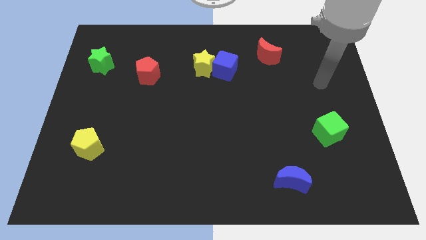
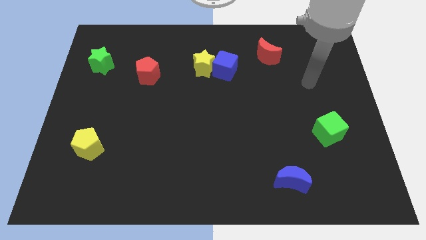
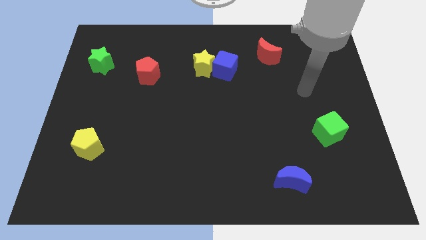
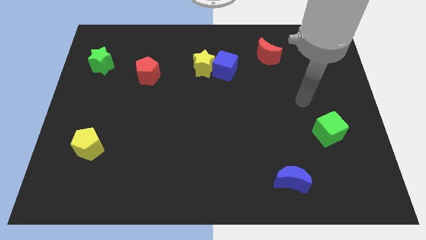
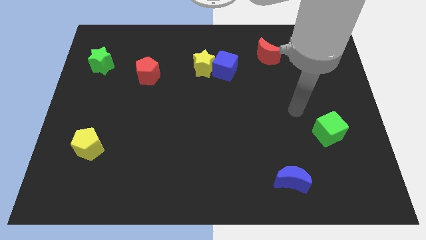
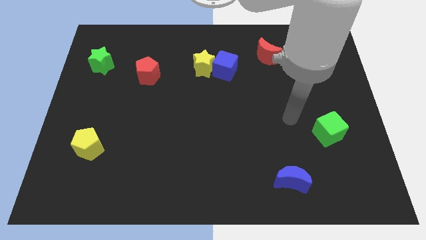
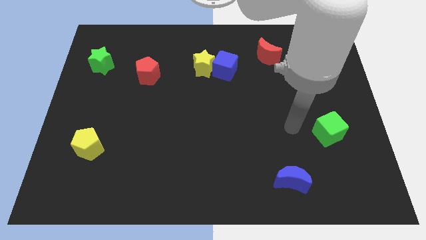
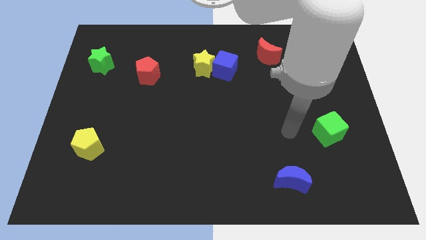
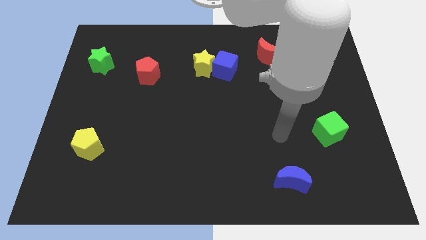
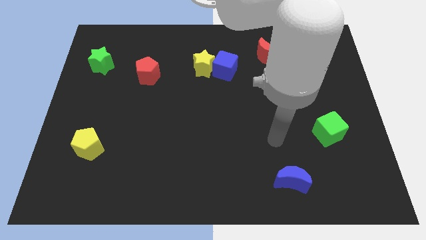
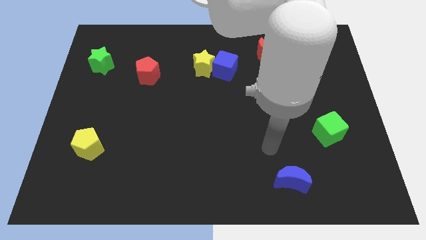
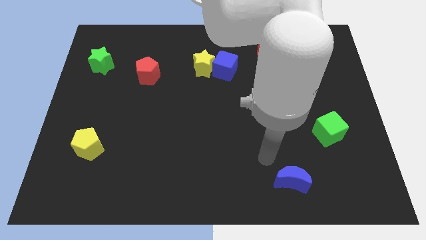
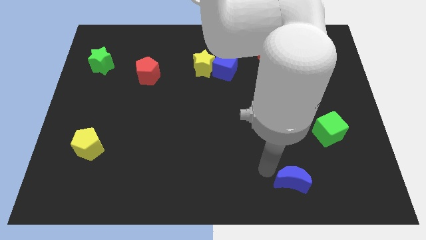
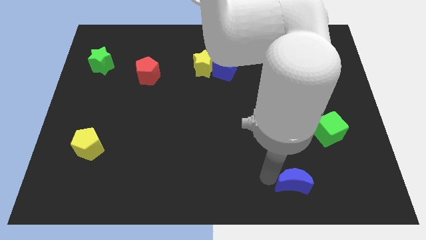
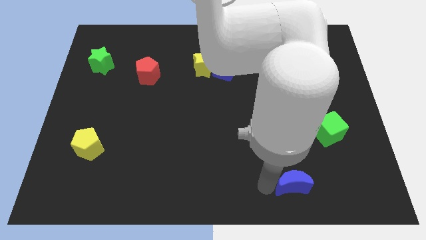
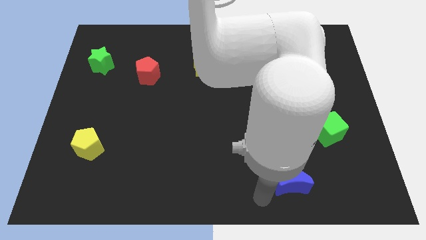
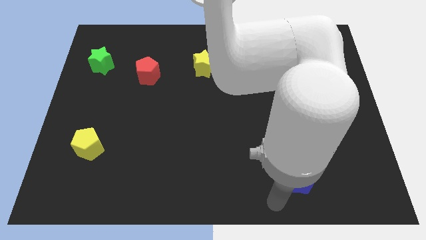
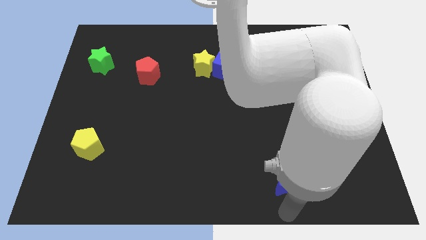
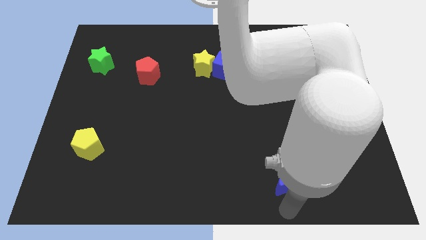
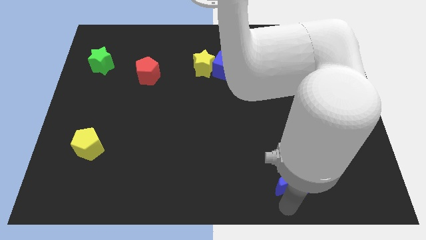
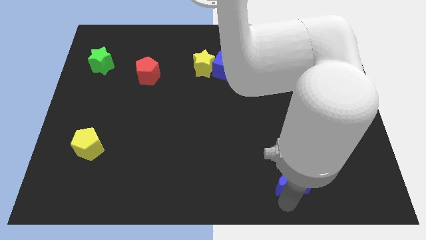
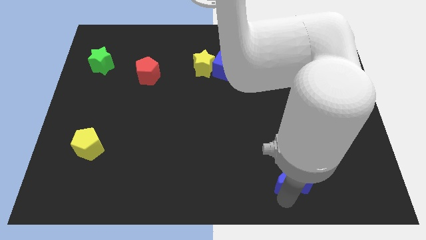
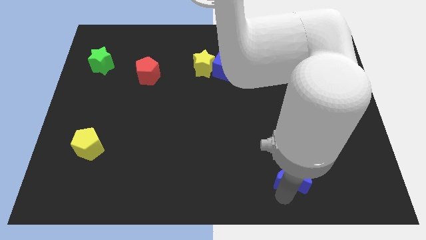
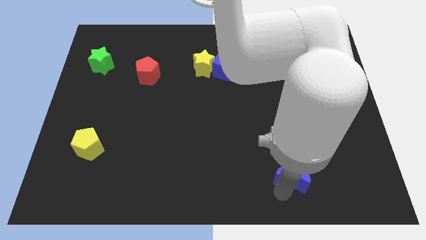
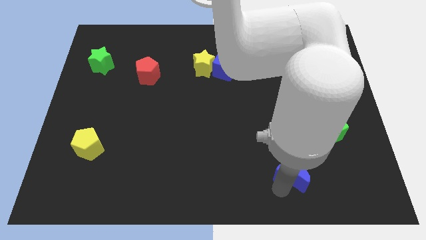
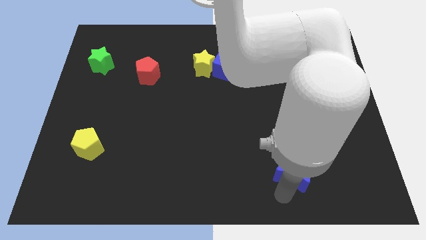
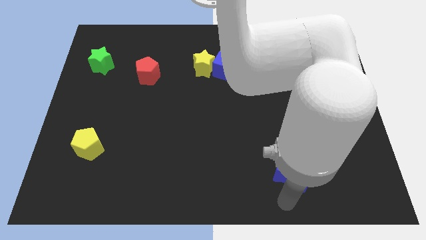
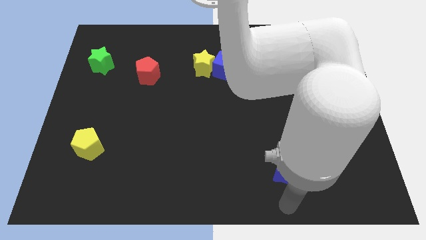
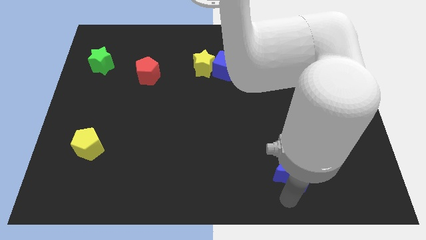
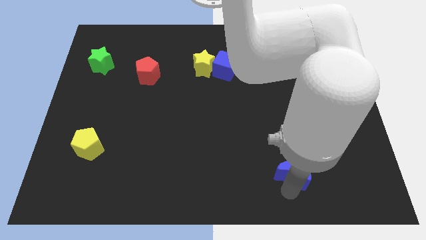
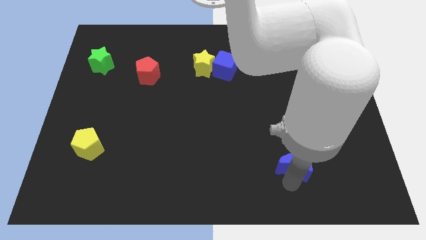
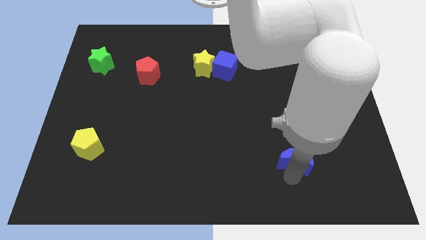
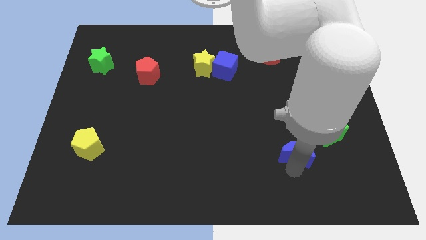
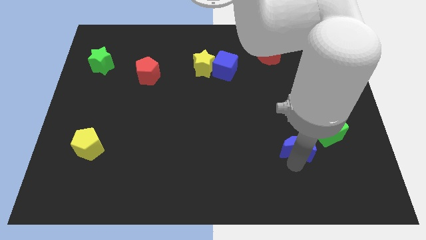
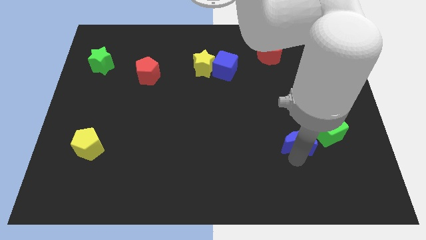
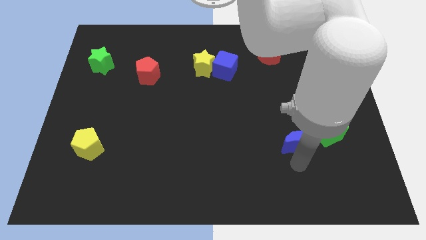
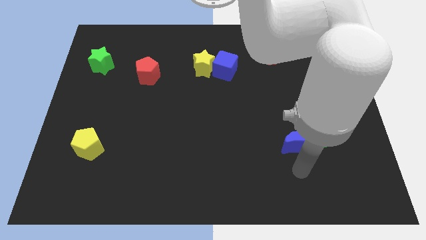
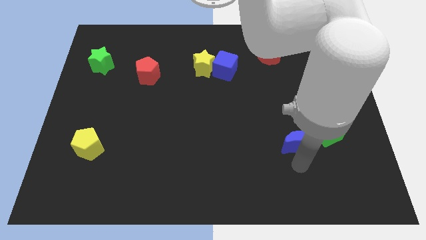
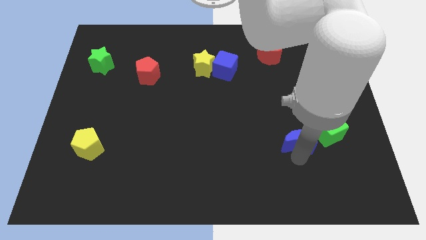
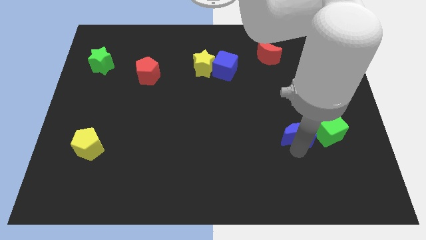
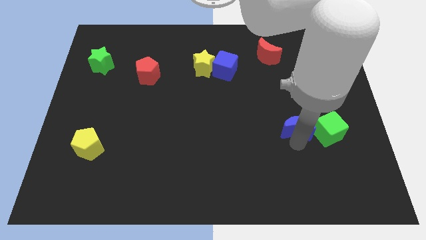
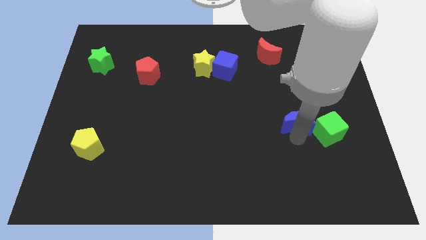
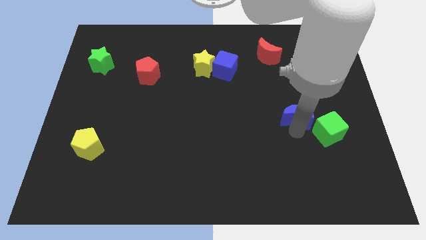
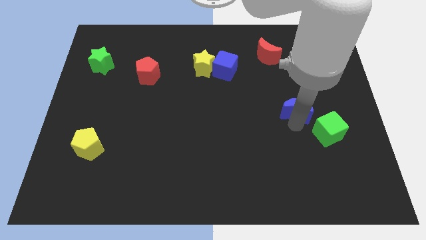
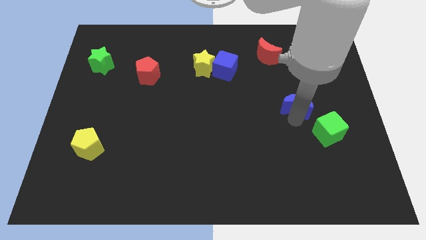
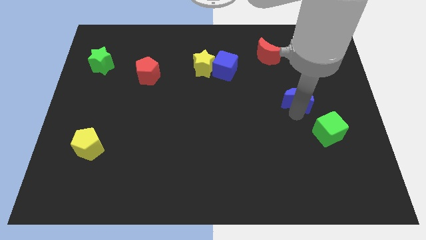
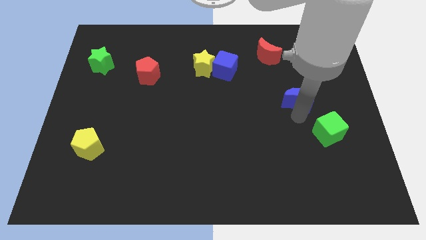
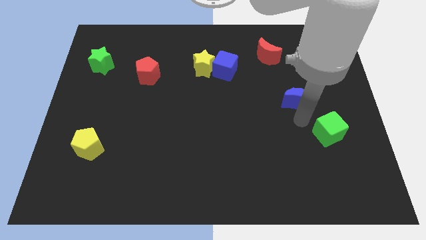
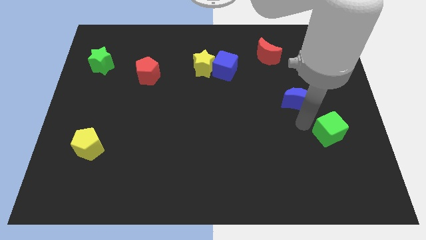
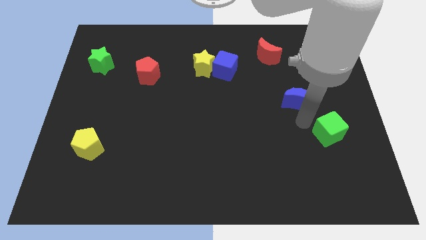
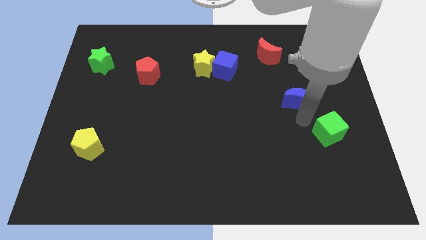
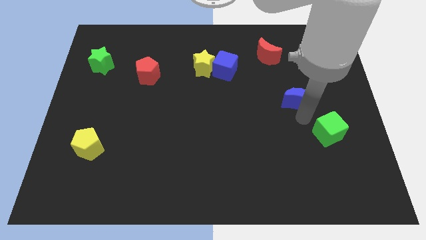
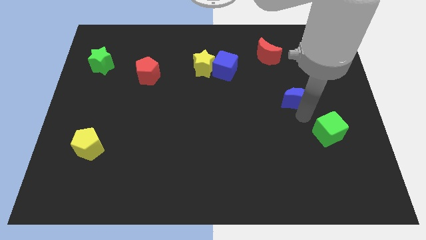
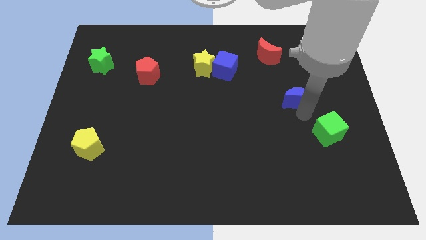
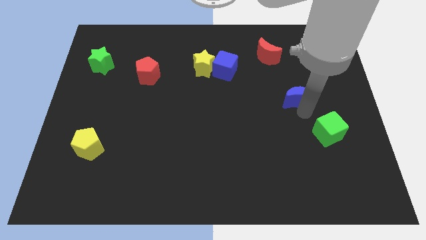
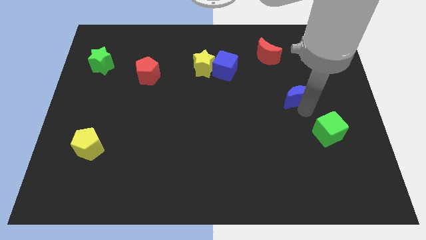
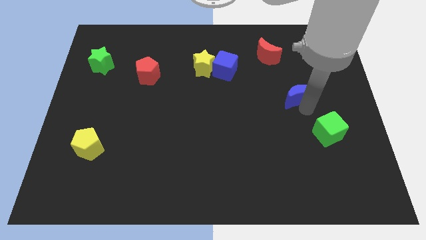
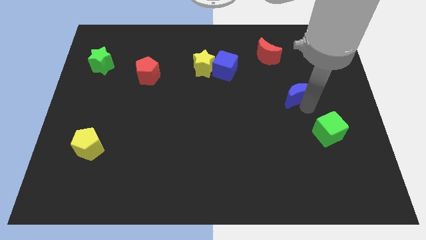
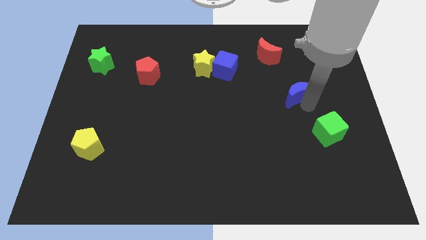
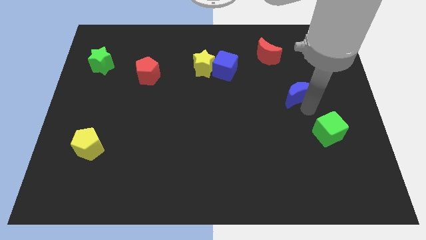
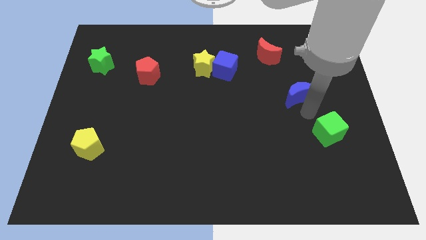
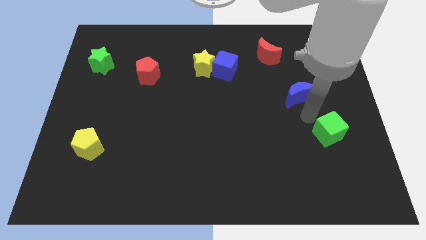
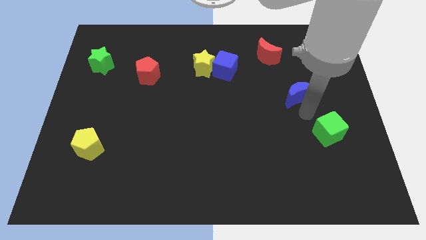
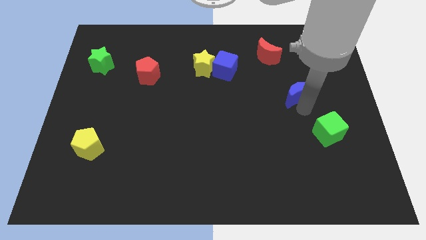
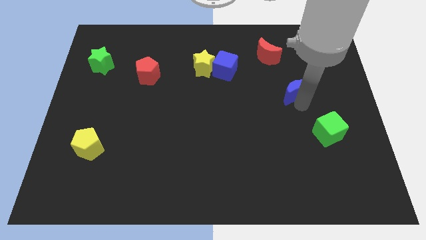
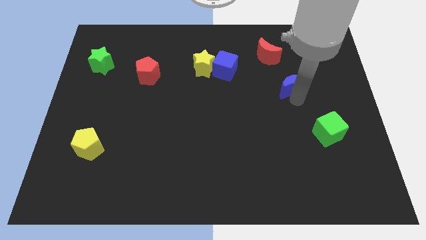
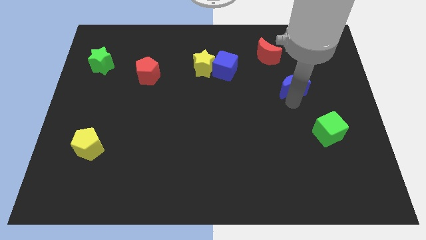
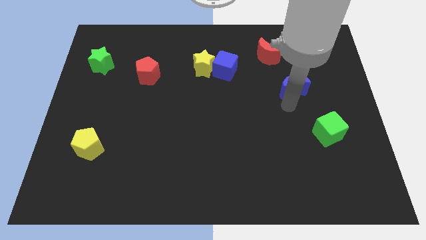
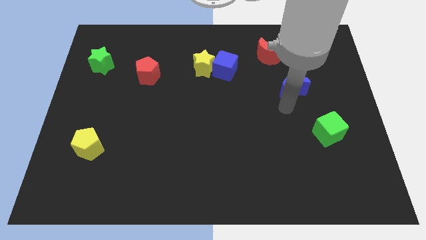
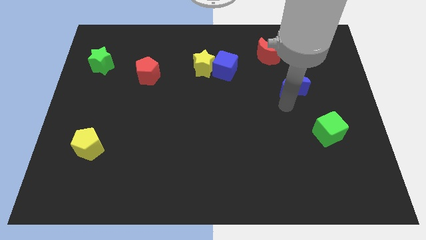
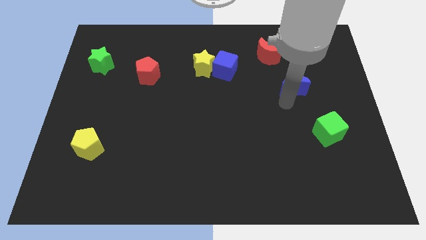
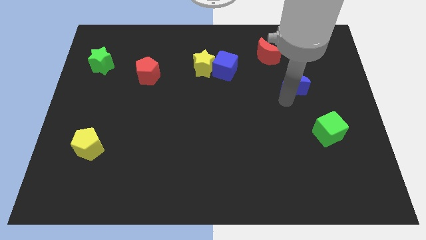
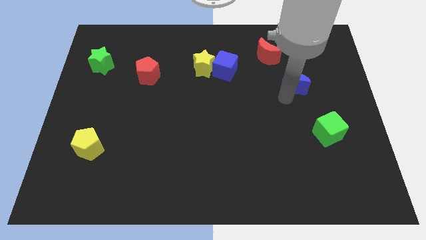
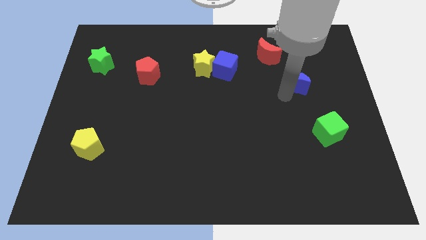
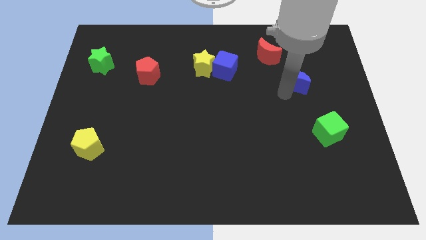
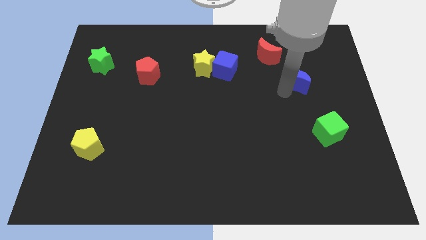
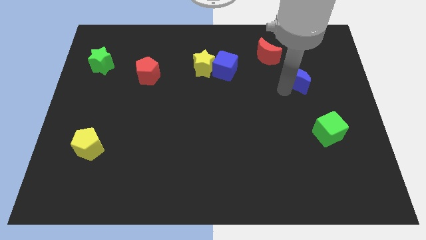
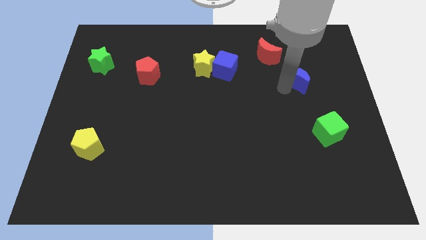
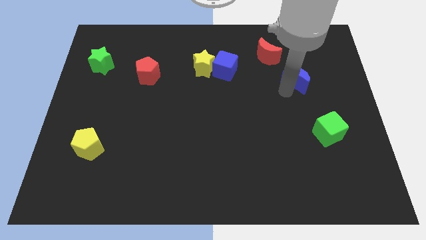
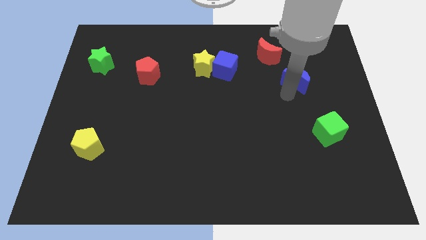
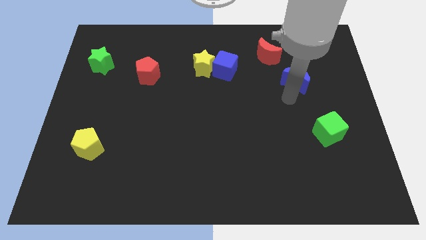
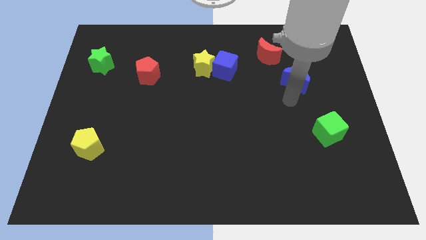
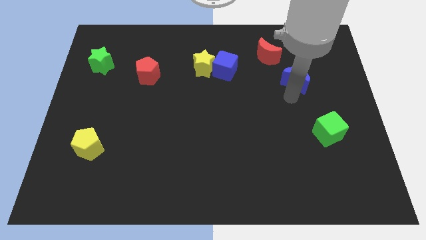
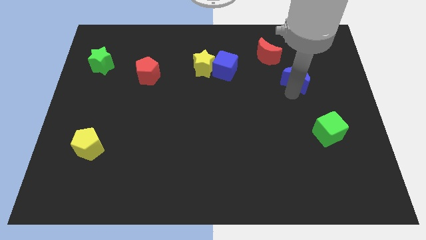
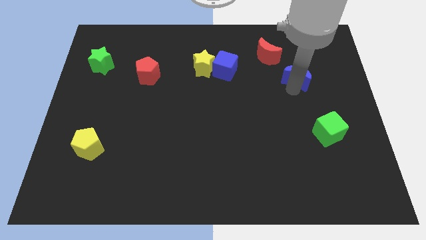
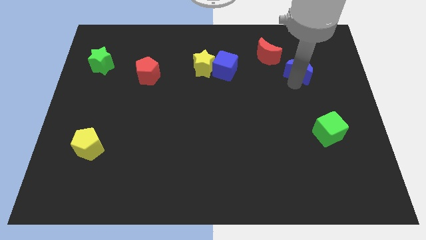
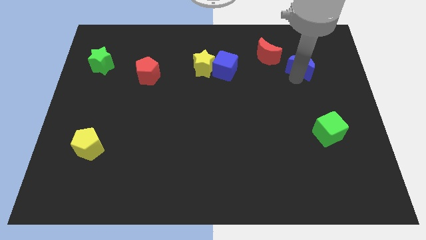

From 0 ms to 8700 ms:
move the blue moon to the right side of the red moon
